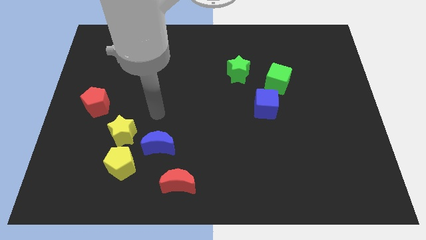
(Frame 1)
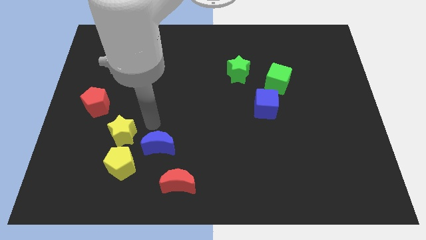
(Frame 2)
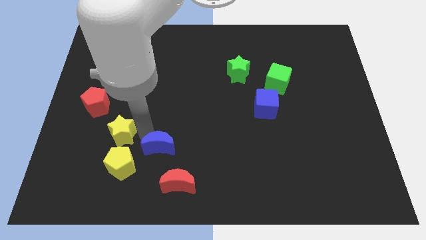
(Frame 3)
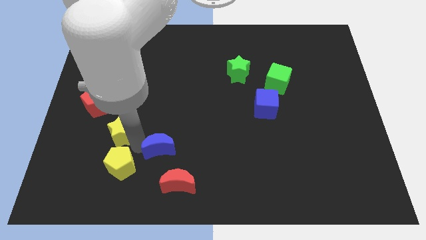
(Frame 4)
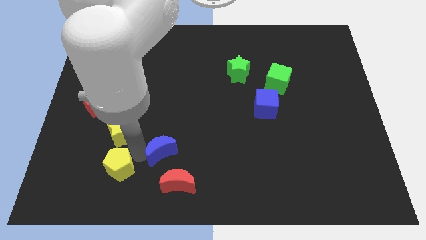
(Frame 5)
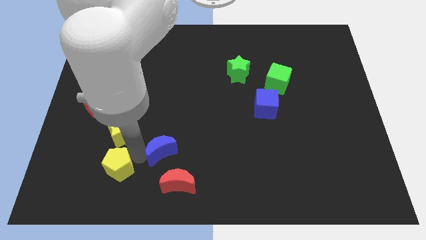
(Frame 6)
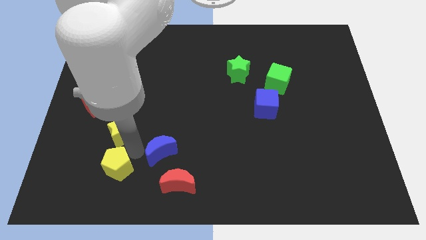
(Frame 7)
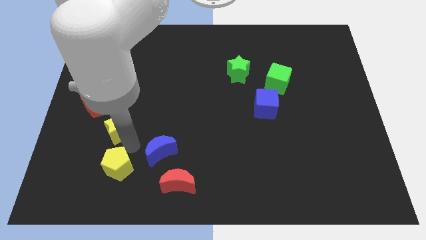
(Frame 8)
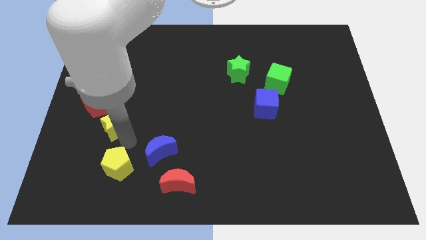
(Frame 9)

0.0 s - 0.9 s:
separate the yellow star from the yellow pentagon and blue moon

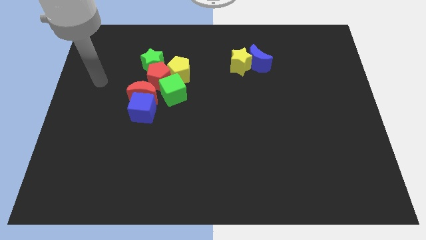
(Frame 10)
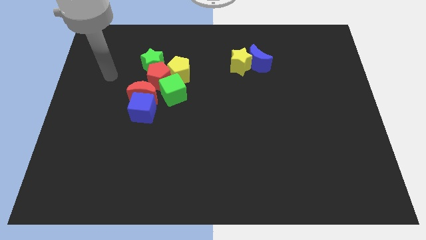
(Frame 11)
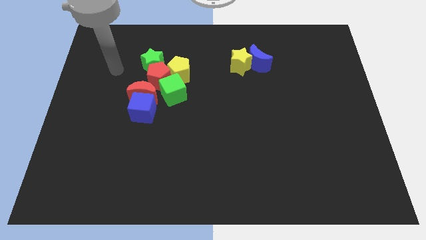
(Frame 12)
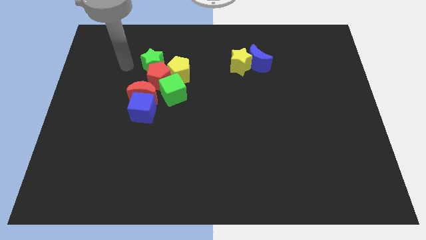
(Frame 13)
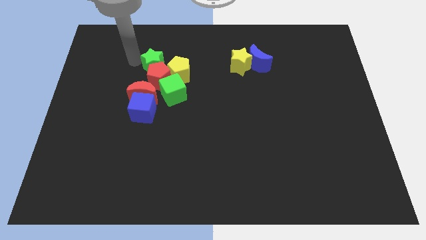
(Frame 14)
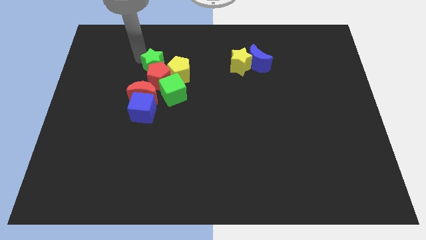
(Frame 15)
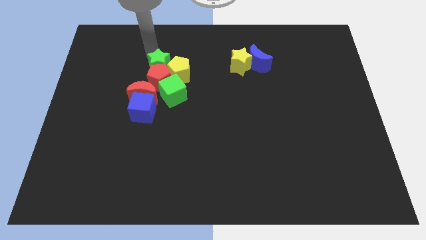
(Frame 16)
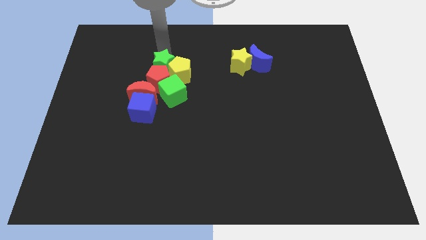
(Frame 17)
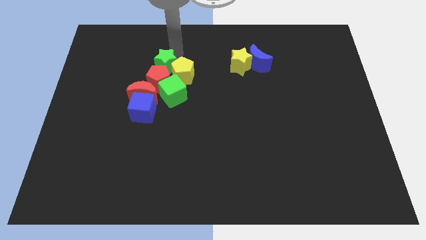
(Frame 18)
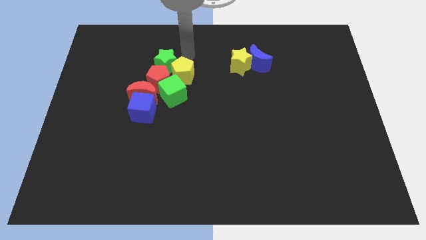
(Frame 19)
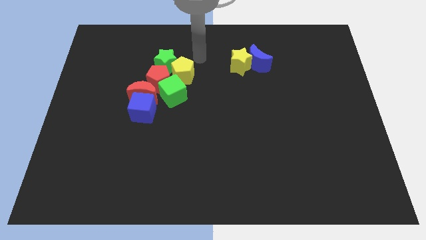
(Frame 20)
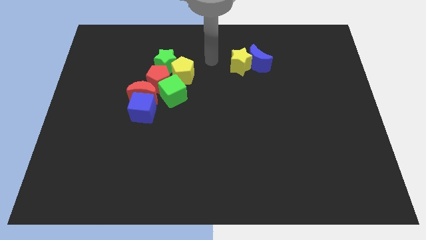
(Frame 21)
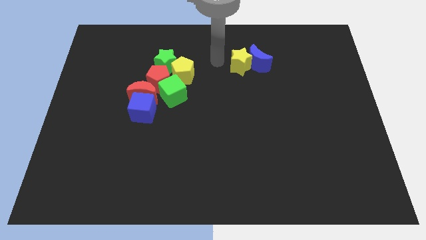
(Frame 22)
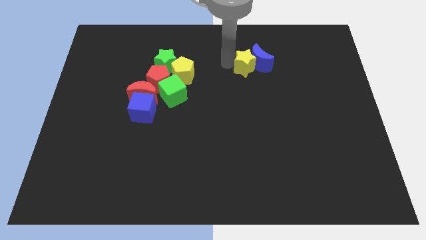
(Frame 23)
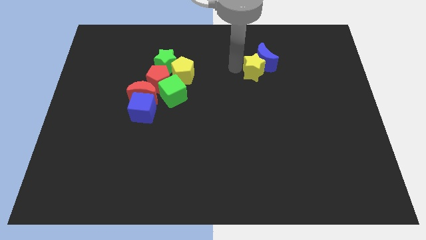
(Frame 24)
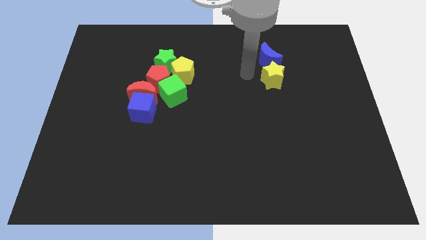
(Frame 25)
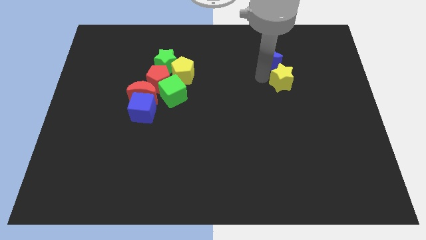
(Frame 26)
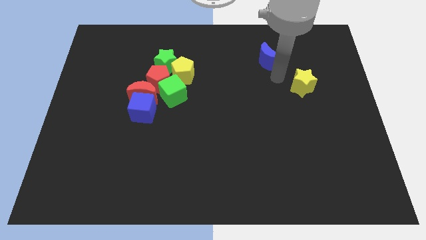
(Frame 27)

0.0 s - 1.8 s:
move the blue moon away from the yellow star

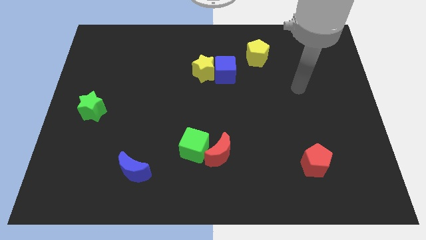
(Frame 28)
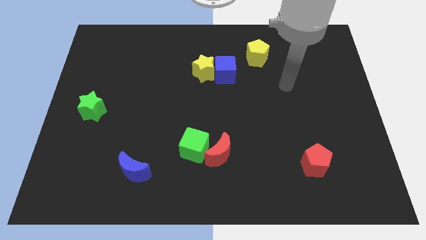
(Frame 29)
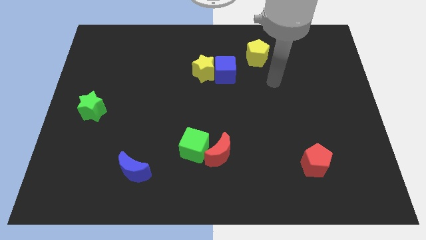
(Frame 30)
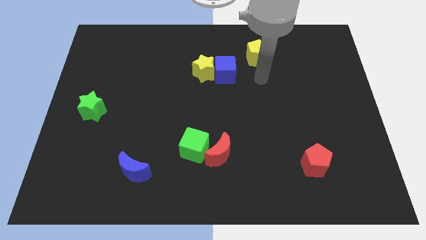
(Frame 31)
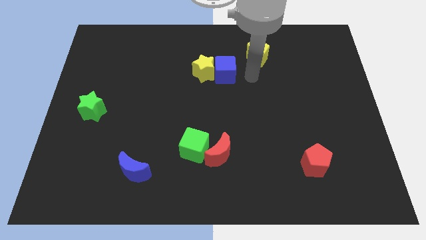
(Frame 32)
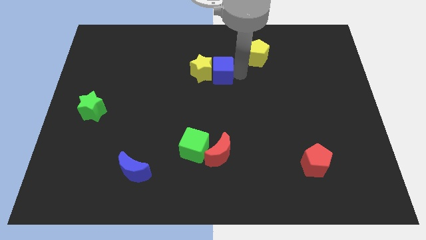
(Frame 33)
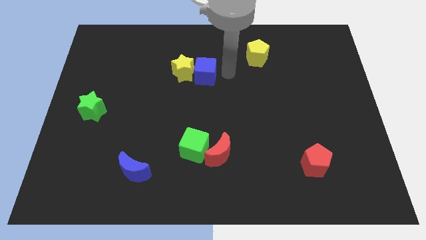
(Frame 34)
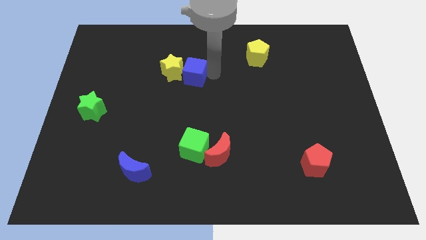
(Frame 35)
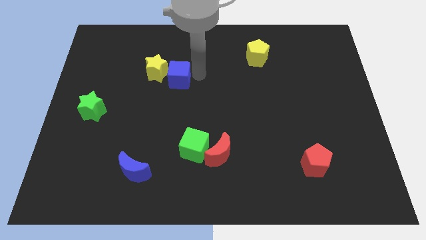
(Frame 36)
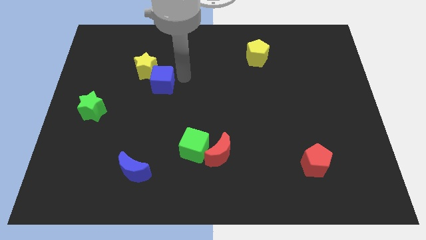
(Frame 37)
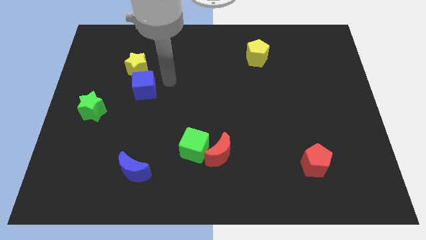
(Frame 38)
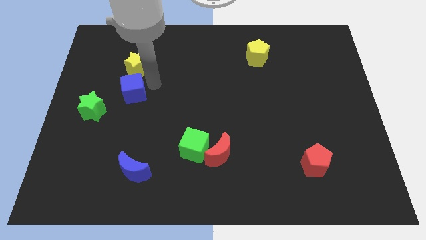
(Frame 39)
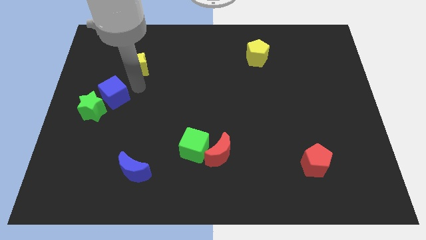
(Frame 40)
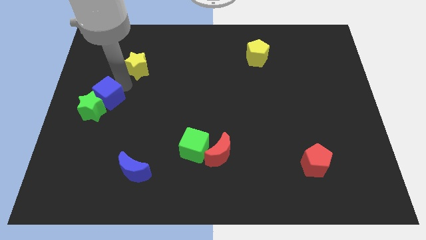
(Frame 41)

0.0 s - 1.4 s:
move the yellow star away from the blue cube

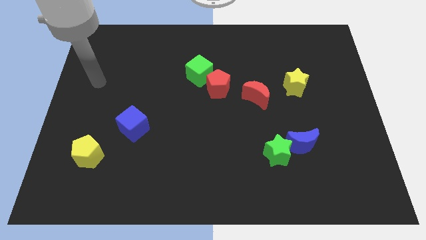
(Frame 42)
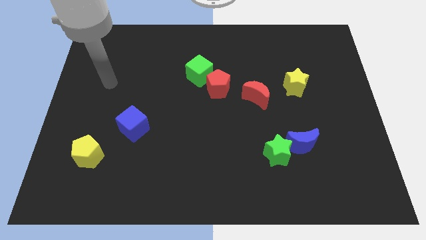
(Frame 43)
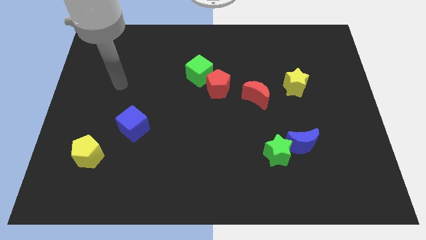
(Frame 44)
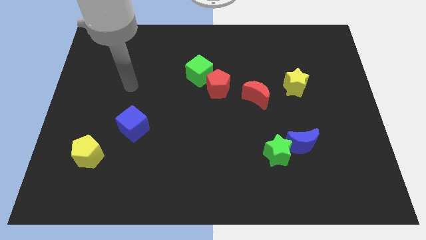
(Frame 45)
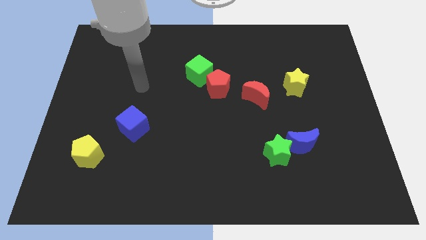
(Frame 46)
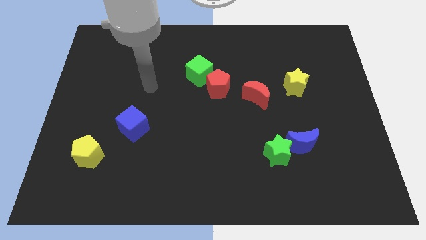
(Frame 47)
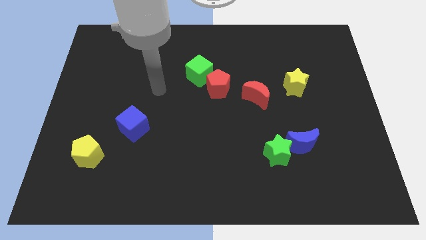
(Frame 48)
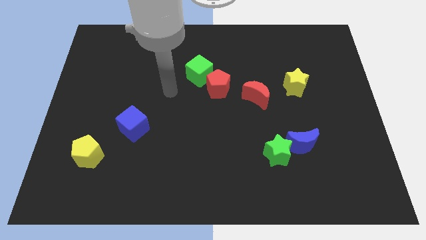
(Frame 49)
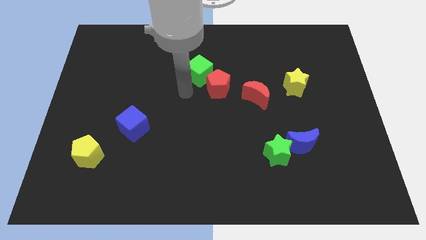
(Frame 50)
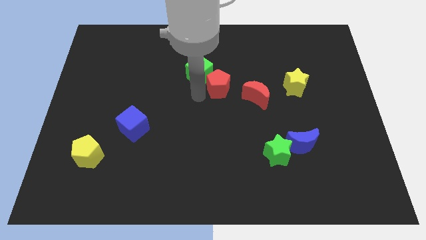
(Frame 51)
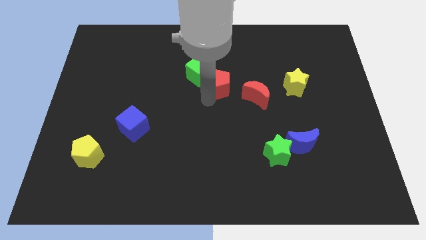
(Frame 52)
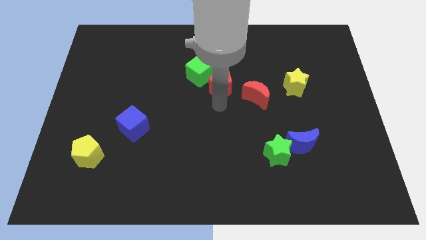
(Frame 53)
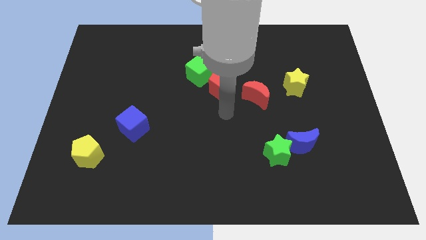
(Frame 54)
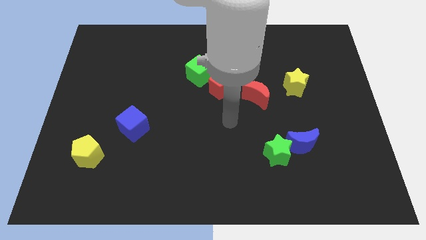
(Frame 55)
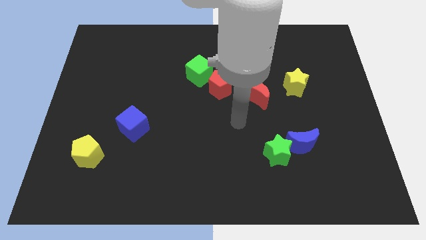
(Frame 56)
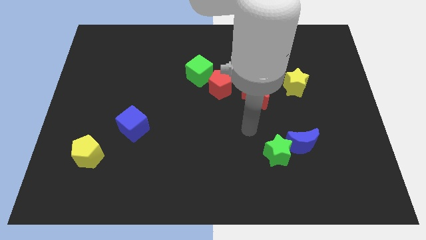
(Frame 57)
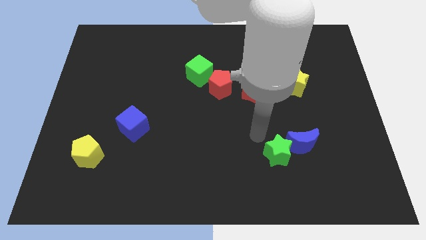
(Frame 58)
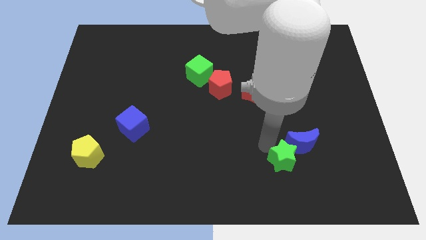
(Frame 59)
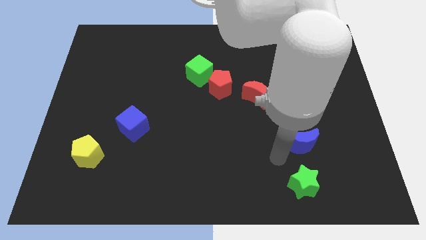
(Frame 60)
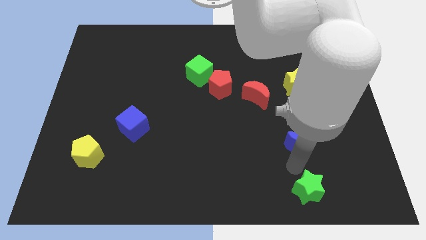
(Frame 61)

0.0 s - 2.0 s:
pull the blue moon apart from the green star

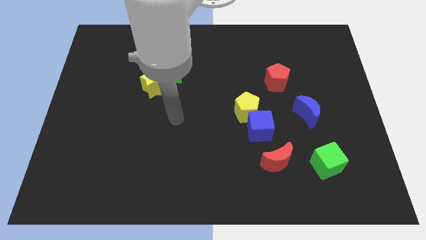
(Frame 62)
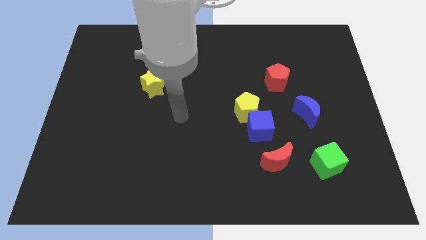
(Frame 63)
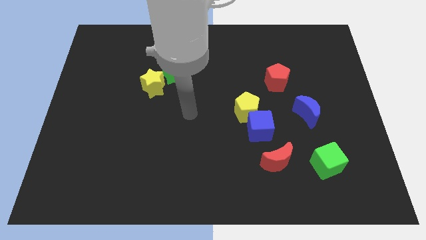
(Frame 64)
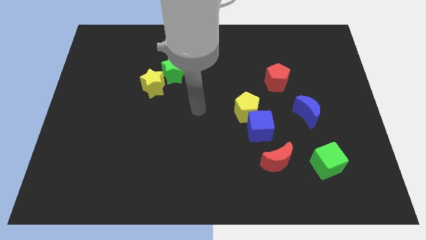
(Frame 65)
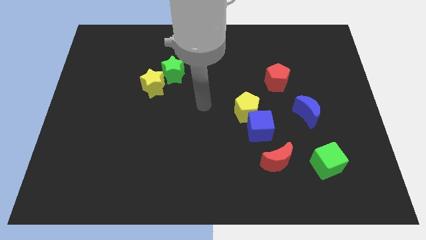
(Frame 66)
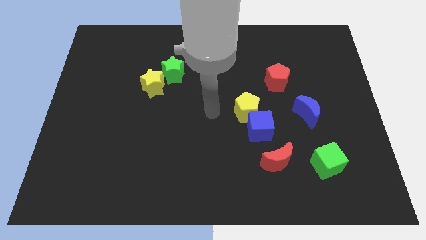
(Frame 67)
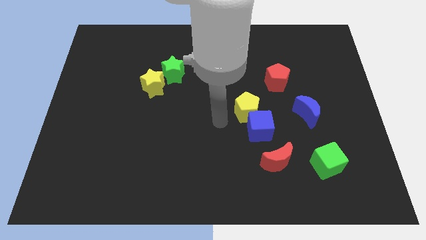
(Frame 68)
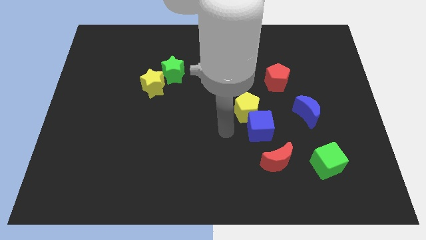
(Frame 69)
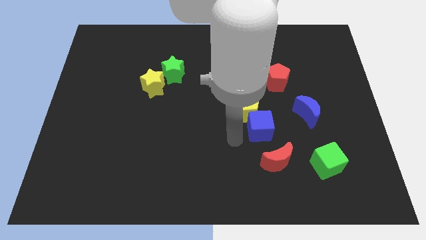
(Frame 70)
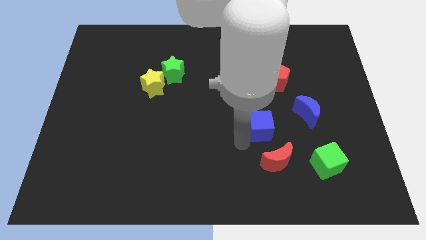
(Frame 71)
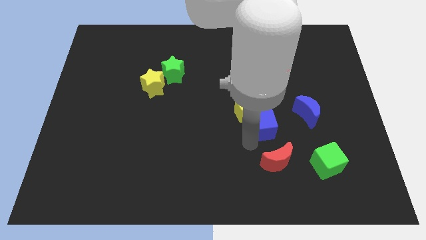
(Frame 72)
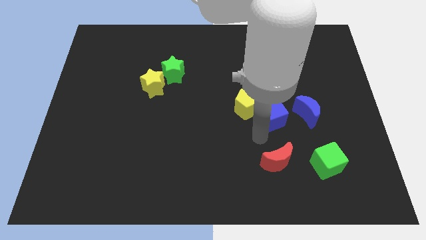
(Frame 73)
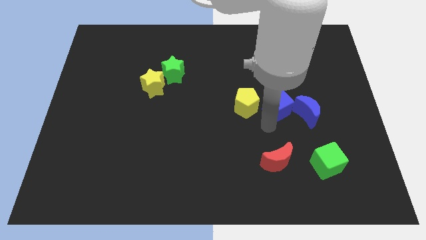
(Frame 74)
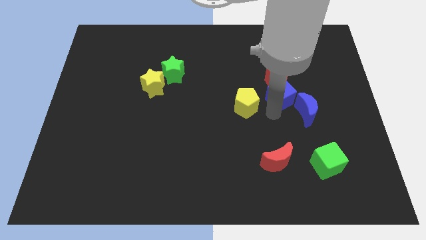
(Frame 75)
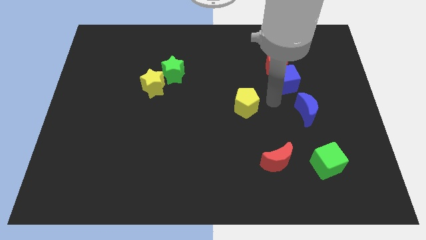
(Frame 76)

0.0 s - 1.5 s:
pull the yellow pentagon apart from the blue cube

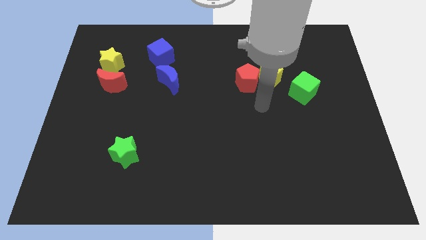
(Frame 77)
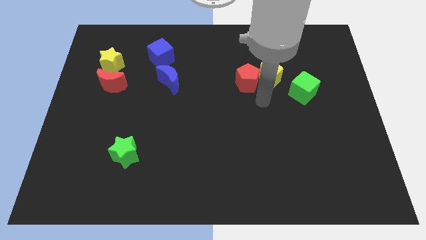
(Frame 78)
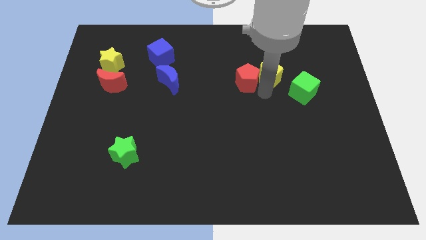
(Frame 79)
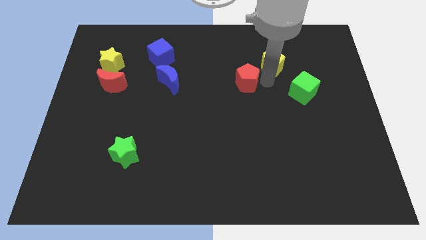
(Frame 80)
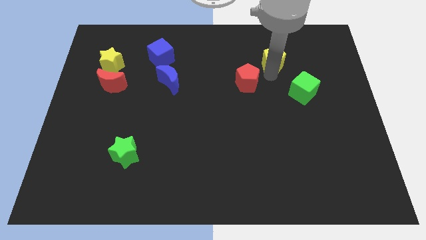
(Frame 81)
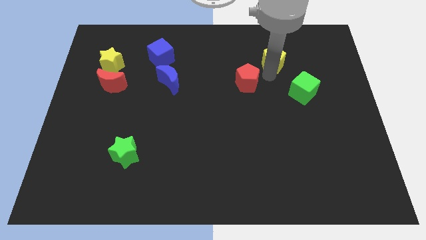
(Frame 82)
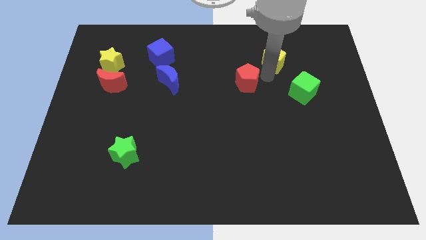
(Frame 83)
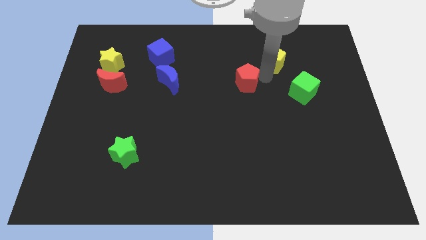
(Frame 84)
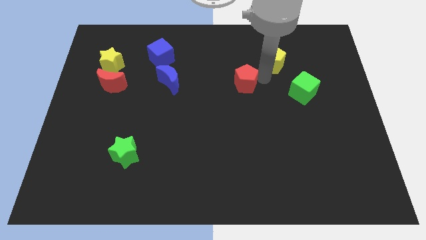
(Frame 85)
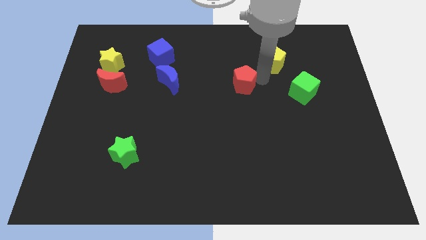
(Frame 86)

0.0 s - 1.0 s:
move the red pentagon away from the yellow pentagon

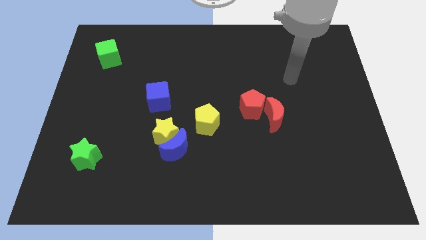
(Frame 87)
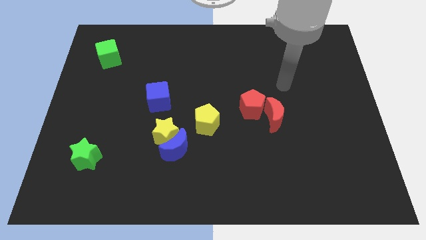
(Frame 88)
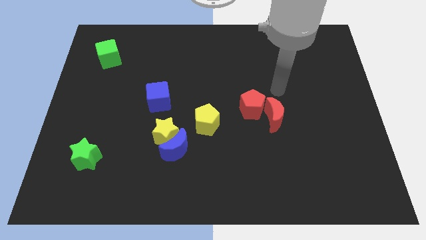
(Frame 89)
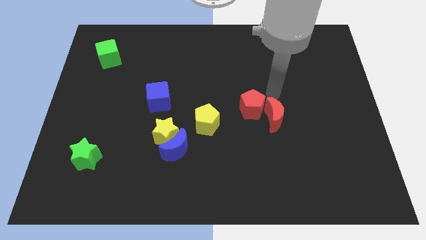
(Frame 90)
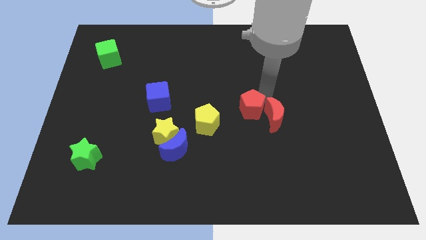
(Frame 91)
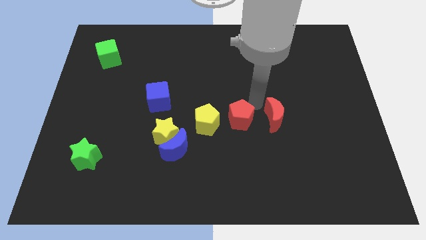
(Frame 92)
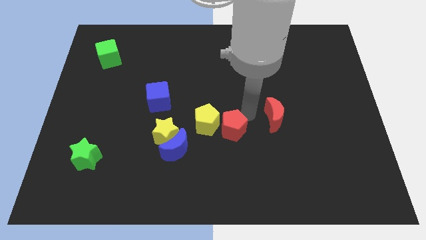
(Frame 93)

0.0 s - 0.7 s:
separate the red moon from the red pentagon
